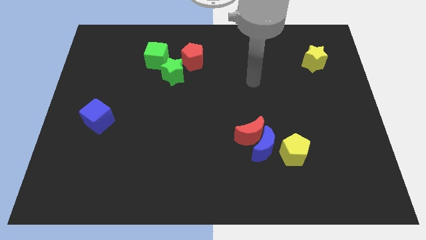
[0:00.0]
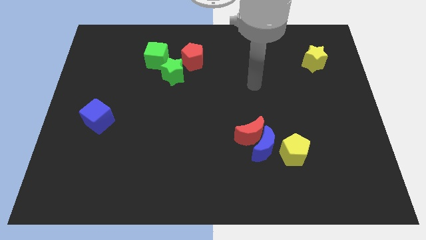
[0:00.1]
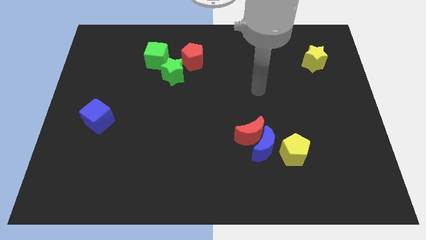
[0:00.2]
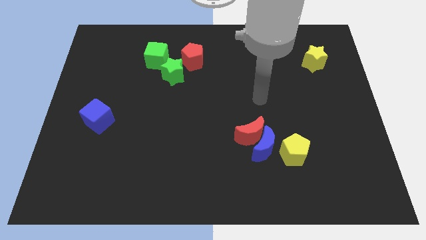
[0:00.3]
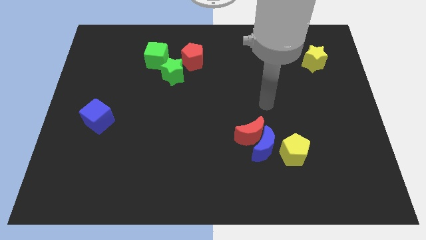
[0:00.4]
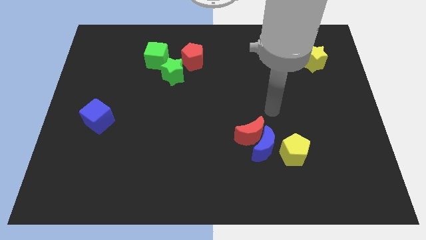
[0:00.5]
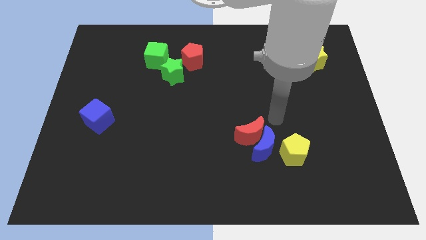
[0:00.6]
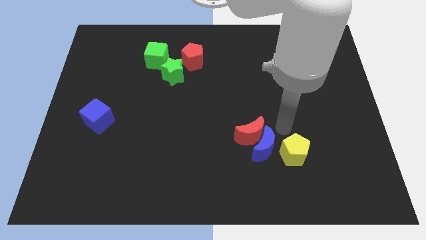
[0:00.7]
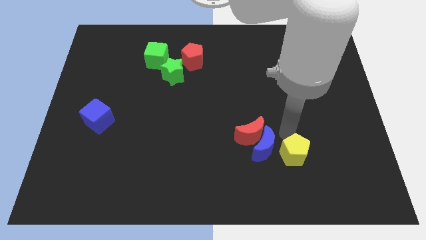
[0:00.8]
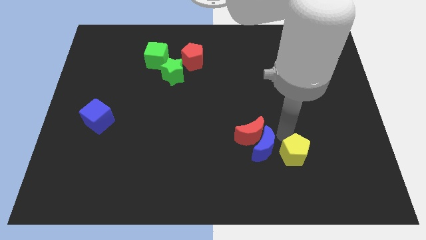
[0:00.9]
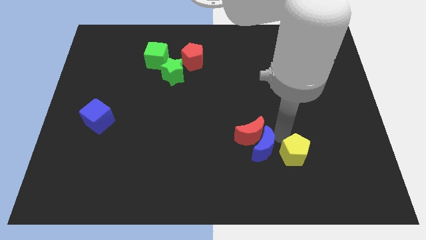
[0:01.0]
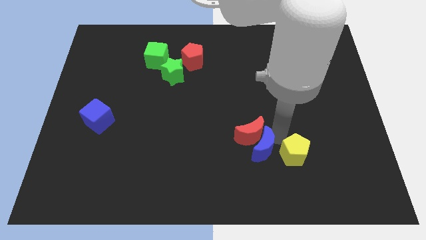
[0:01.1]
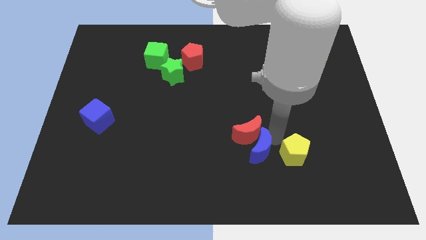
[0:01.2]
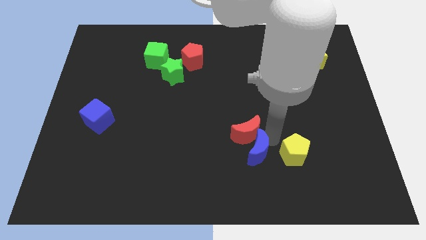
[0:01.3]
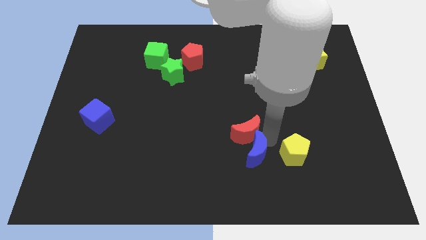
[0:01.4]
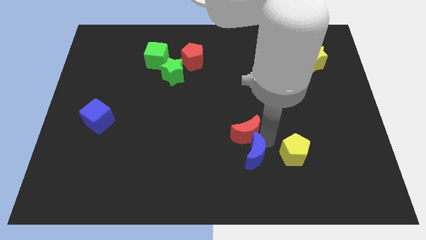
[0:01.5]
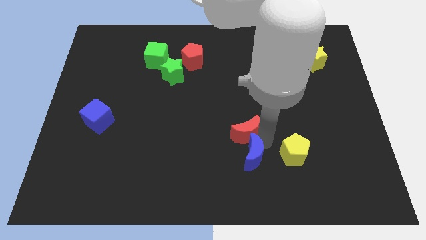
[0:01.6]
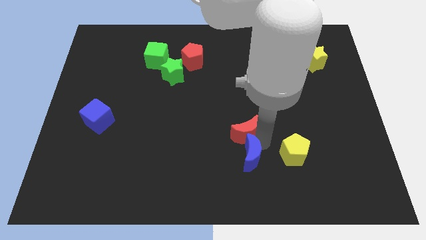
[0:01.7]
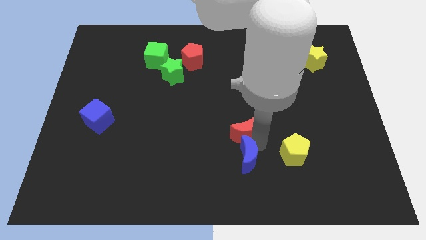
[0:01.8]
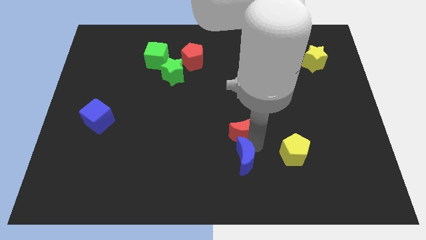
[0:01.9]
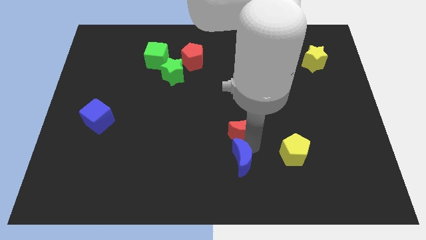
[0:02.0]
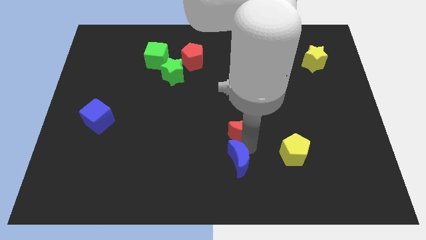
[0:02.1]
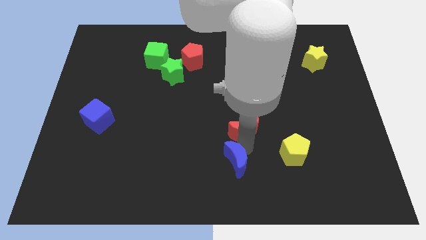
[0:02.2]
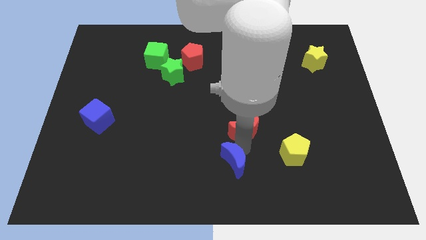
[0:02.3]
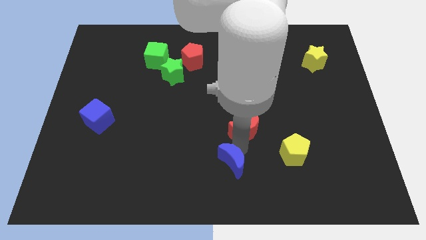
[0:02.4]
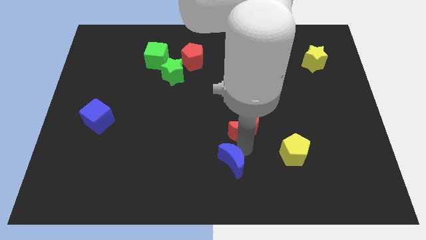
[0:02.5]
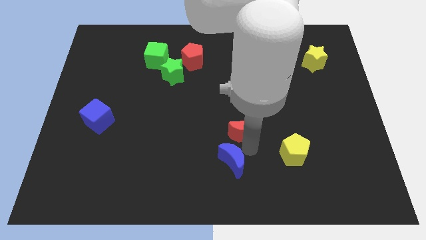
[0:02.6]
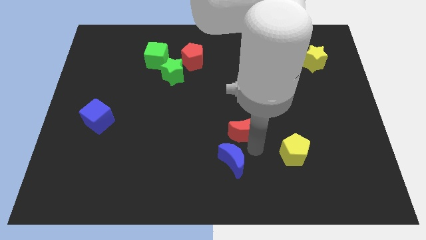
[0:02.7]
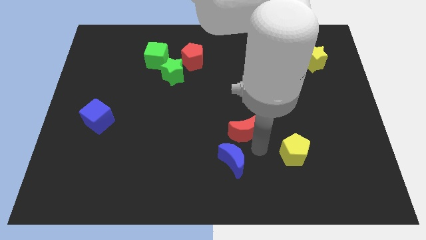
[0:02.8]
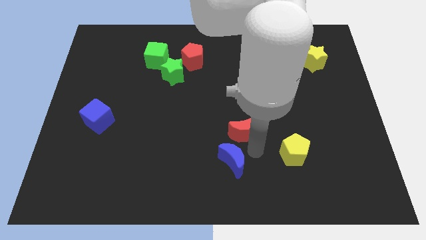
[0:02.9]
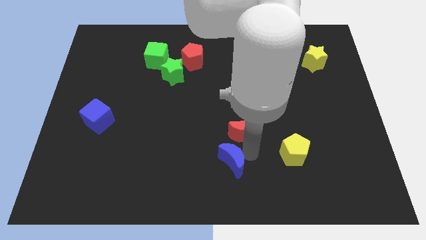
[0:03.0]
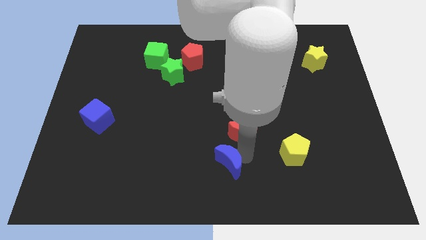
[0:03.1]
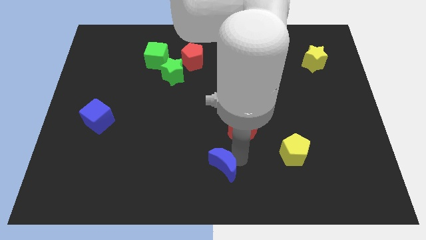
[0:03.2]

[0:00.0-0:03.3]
pull the blue moon apart from the red moon and yellow pentagon

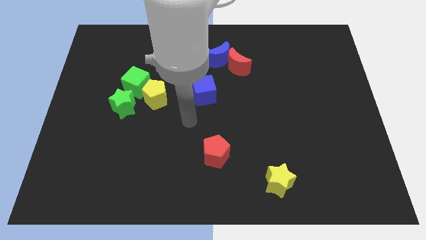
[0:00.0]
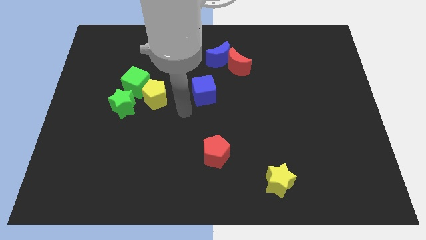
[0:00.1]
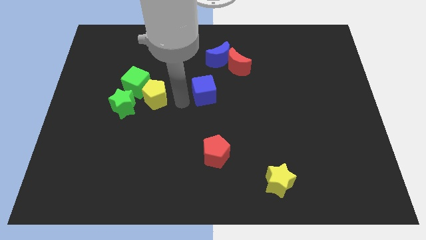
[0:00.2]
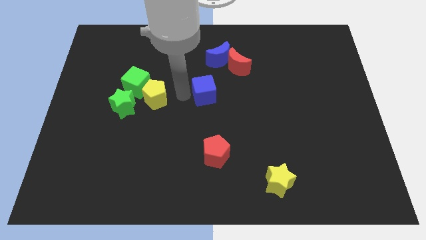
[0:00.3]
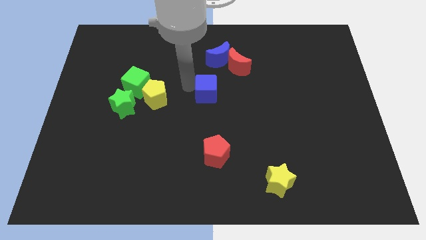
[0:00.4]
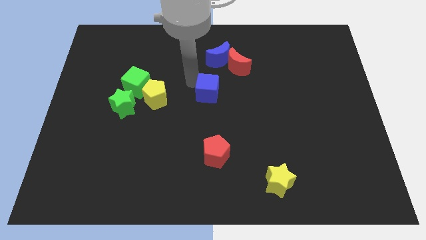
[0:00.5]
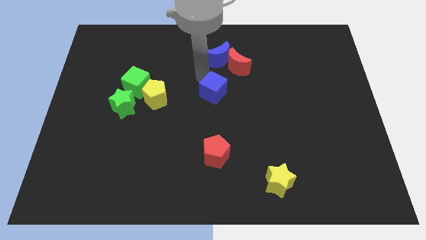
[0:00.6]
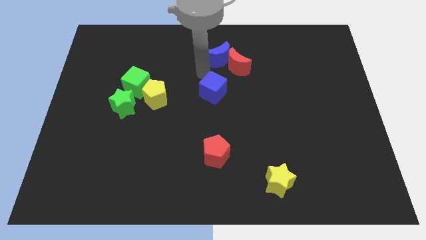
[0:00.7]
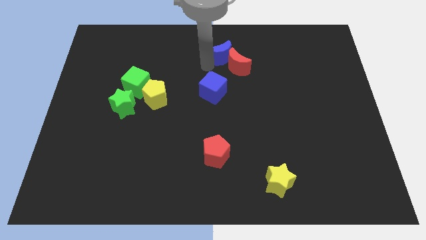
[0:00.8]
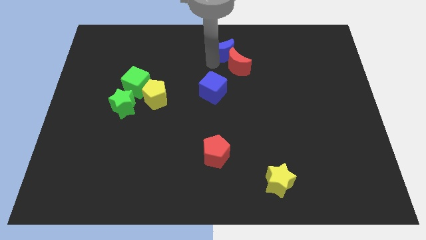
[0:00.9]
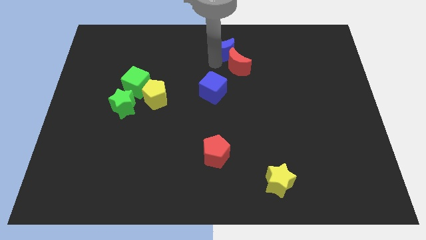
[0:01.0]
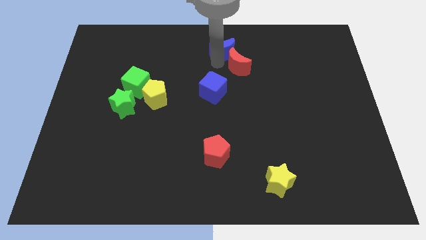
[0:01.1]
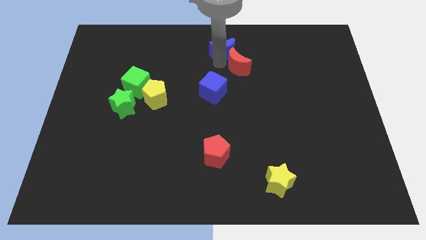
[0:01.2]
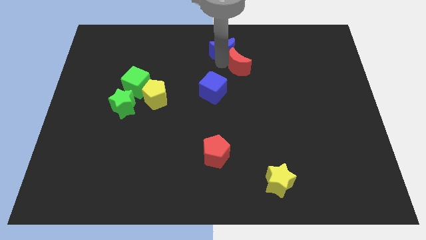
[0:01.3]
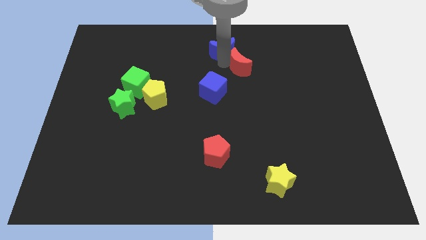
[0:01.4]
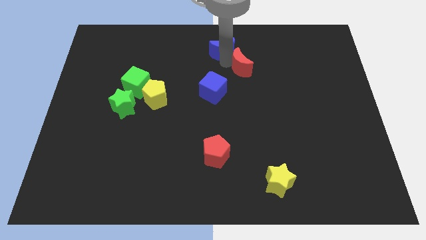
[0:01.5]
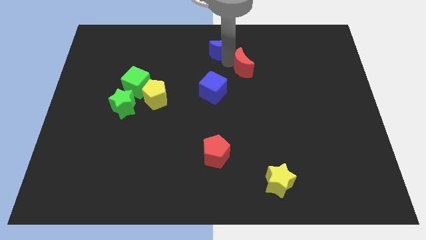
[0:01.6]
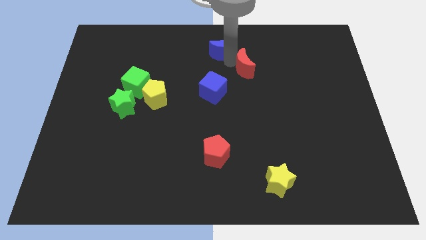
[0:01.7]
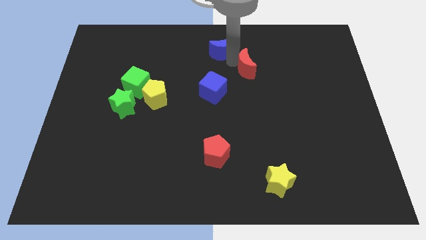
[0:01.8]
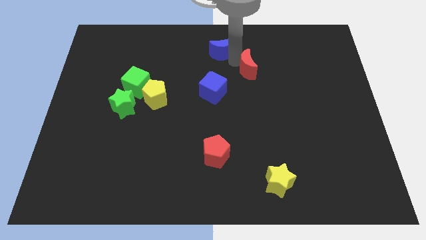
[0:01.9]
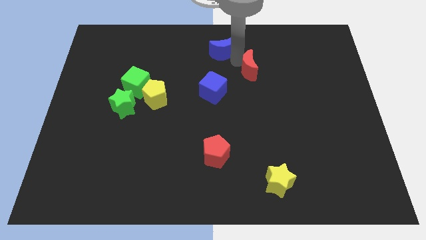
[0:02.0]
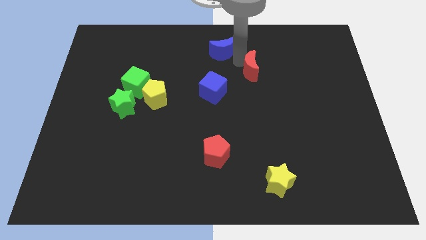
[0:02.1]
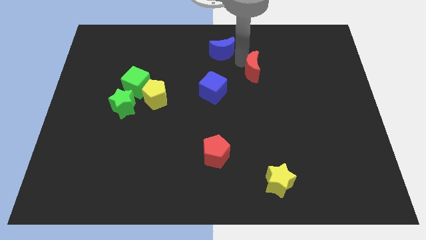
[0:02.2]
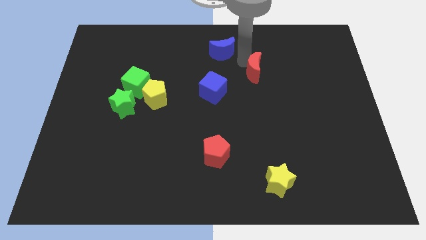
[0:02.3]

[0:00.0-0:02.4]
separate the red moon from the blue moon

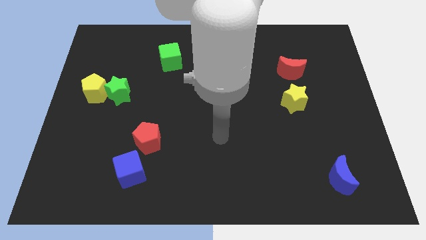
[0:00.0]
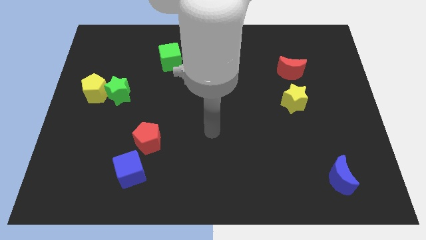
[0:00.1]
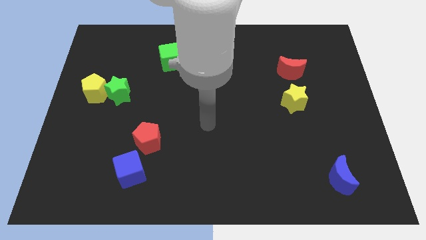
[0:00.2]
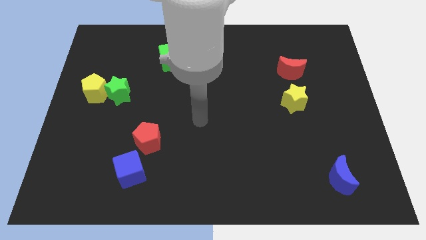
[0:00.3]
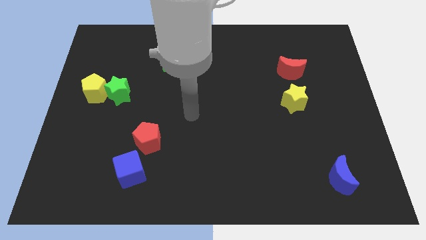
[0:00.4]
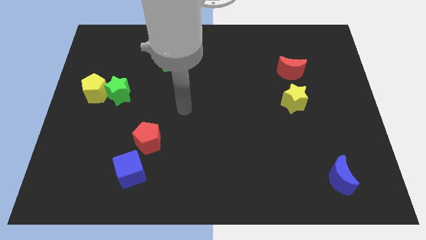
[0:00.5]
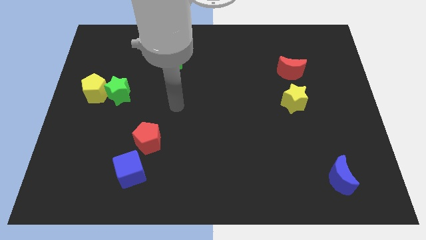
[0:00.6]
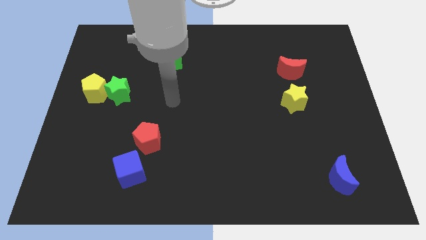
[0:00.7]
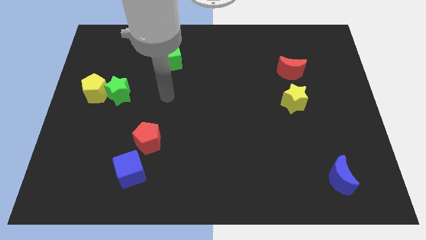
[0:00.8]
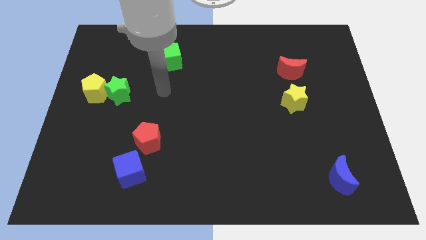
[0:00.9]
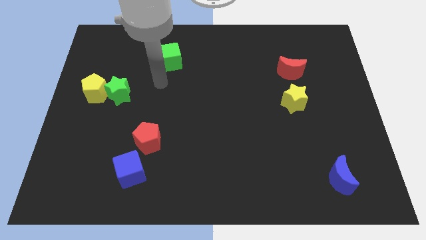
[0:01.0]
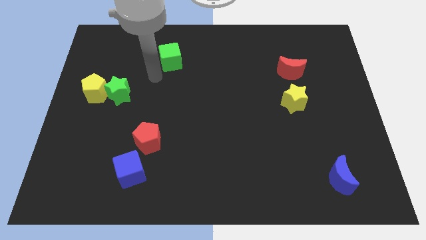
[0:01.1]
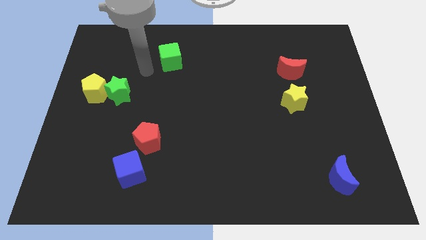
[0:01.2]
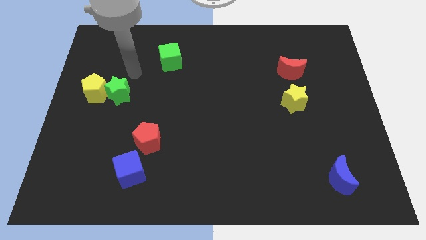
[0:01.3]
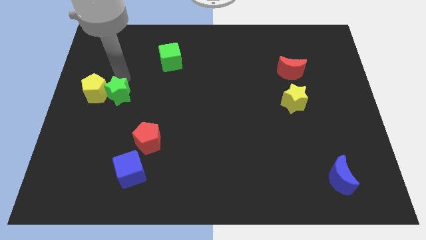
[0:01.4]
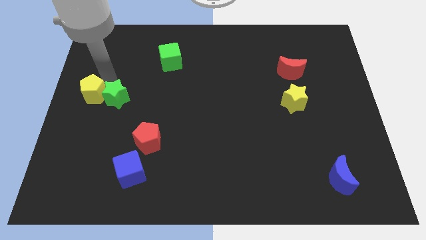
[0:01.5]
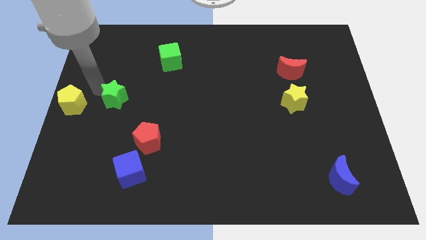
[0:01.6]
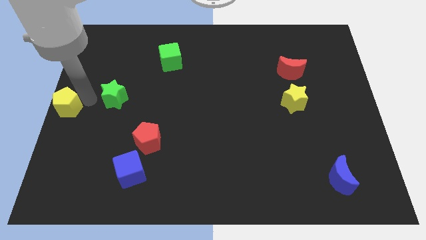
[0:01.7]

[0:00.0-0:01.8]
separate the green star from the yellow pentagon

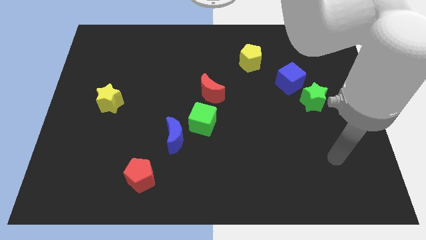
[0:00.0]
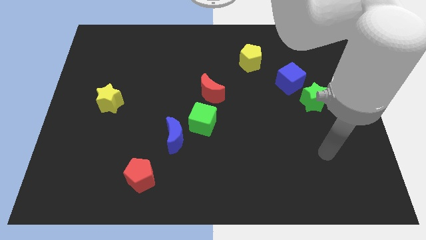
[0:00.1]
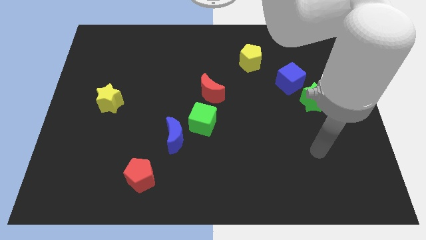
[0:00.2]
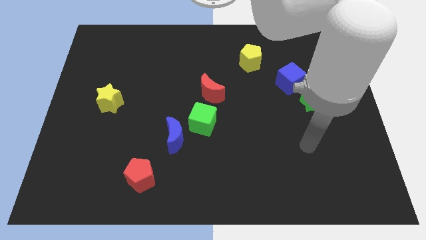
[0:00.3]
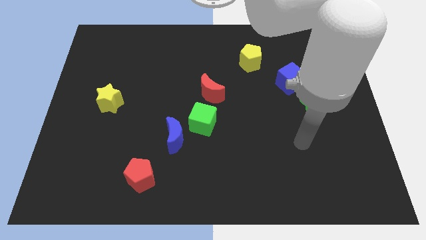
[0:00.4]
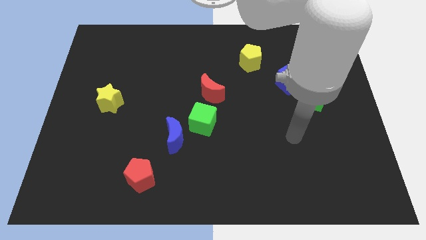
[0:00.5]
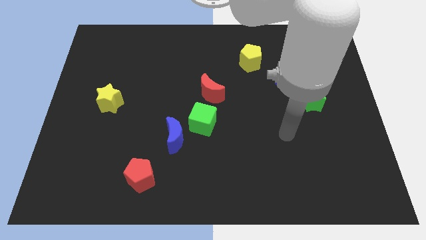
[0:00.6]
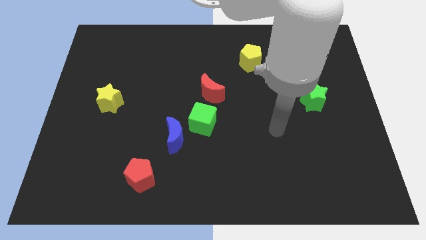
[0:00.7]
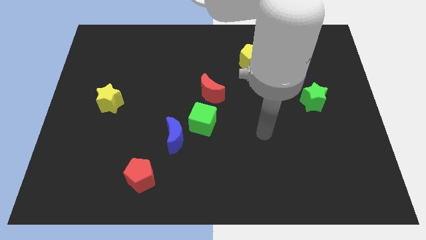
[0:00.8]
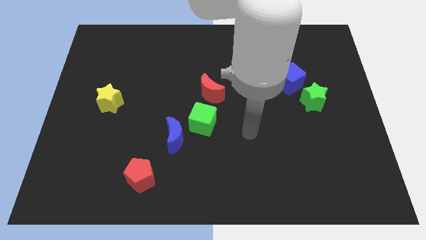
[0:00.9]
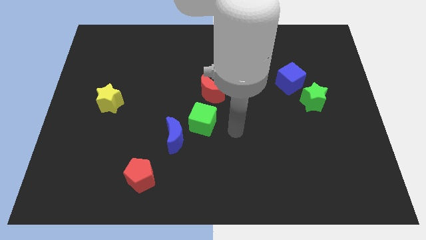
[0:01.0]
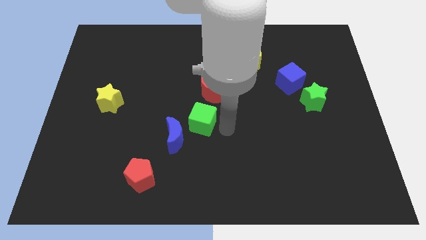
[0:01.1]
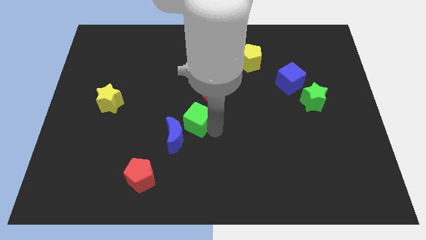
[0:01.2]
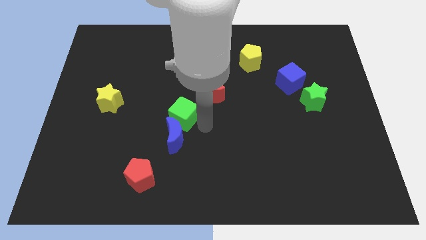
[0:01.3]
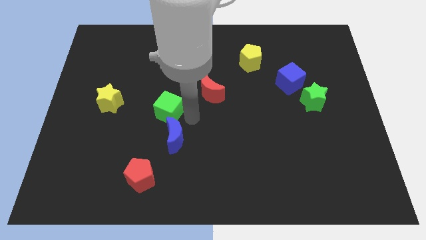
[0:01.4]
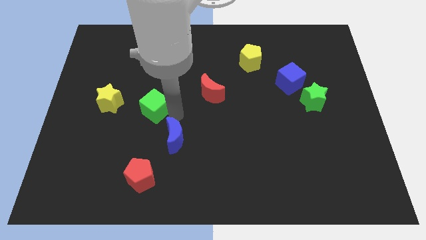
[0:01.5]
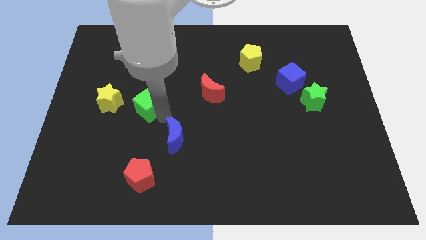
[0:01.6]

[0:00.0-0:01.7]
move the blue moon away from the green cube

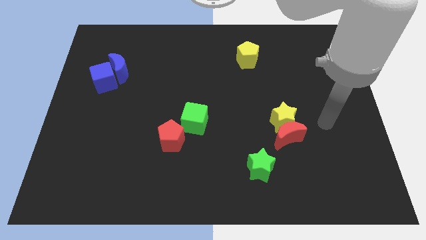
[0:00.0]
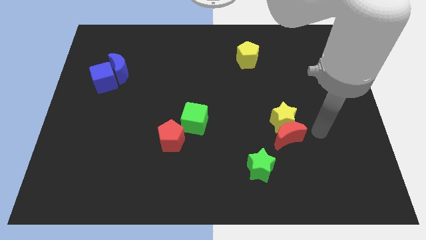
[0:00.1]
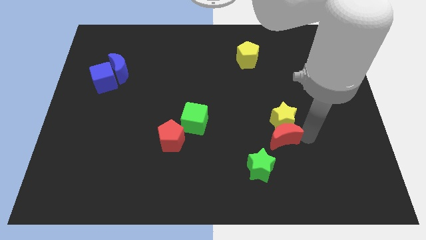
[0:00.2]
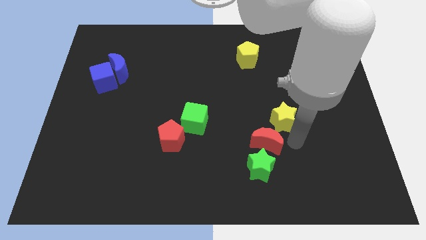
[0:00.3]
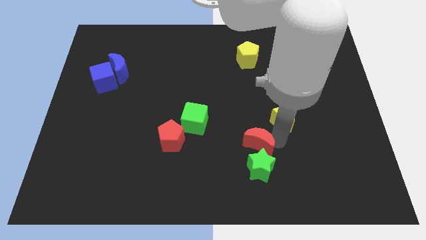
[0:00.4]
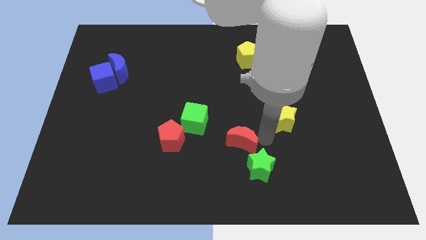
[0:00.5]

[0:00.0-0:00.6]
pull the yellow star apart from the red moon
